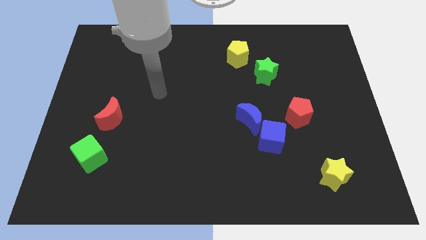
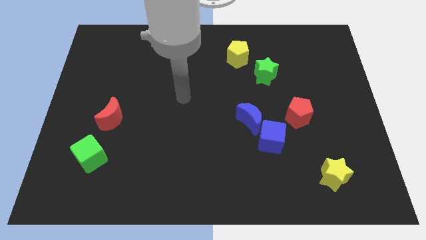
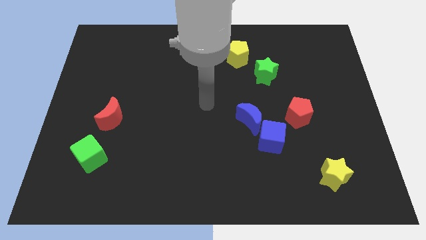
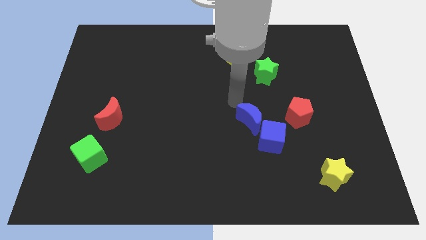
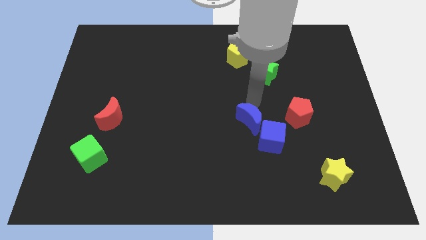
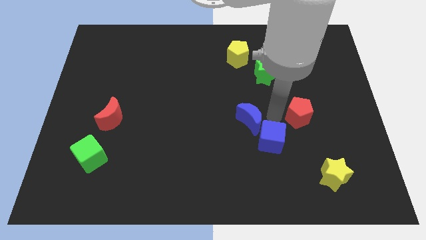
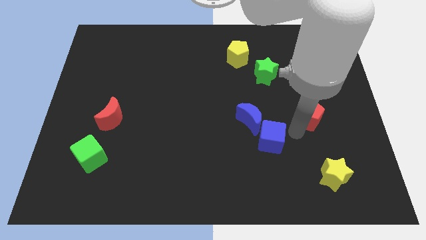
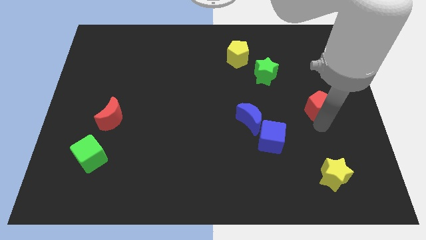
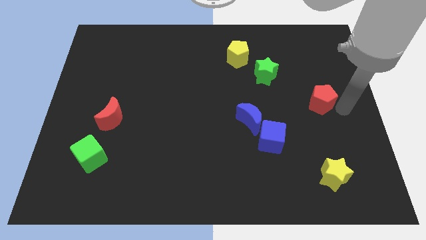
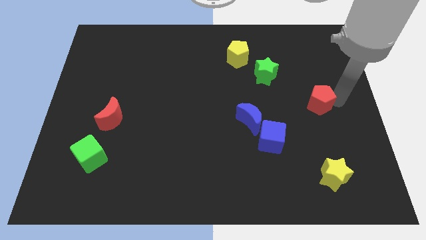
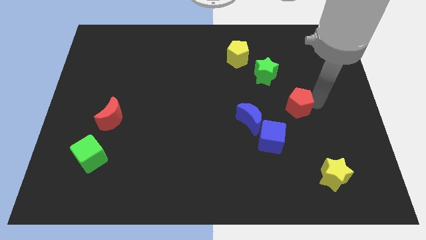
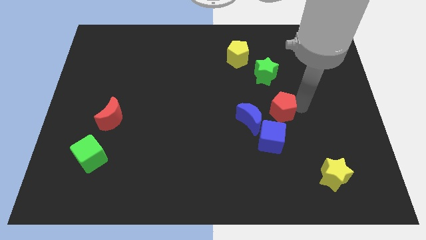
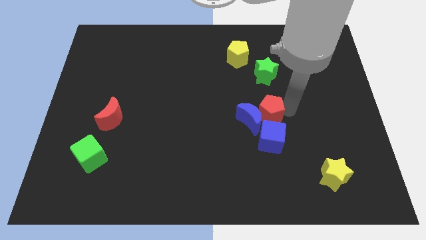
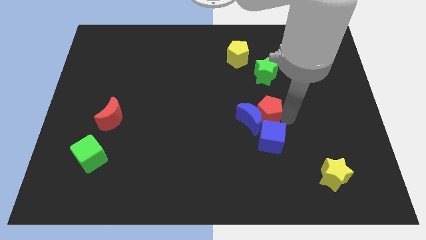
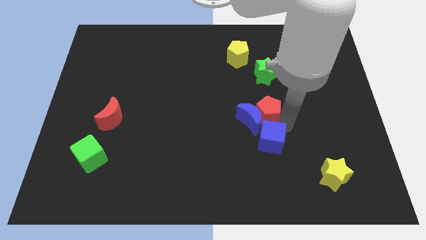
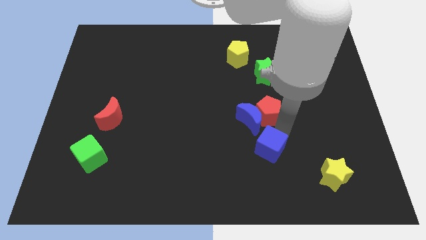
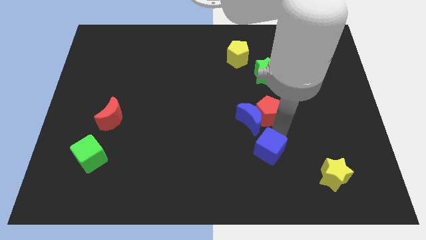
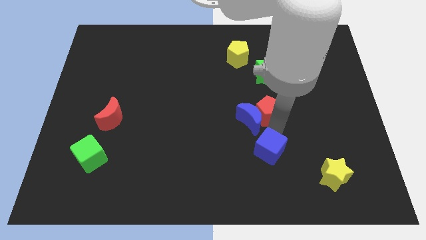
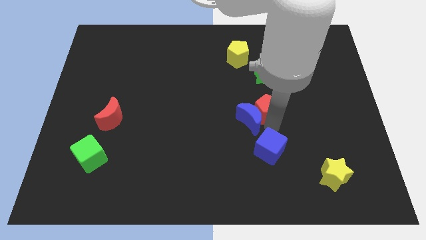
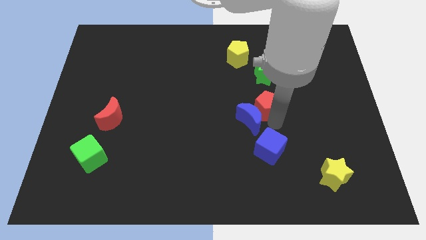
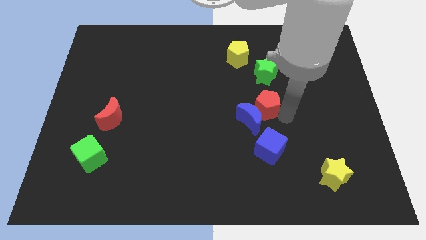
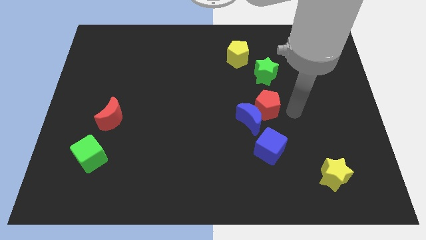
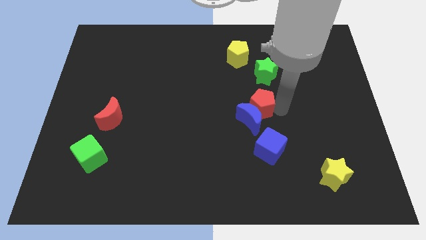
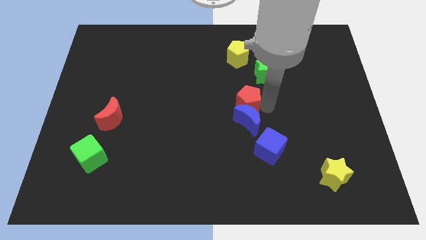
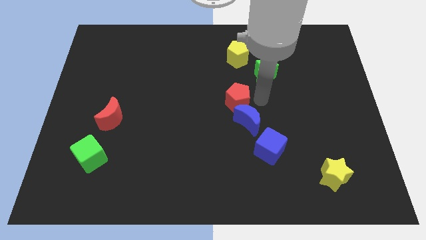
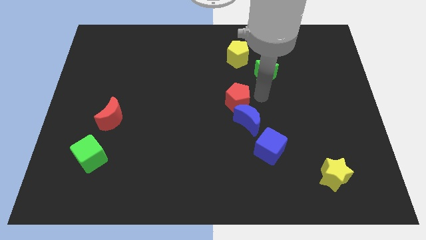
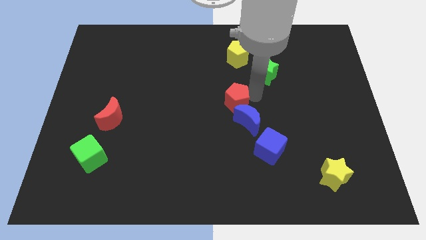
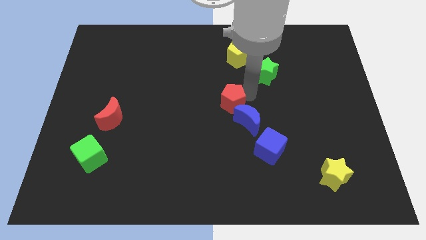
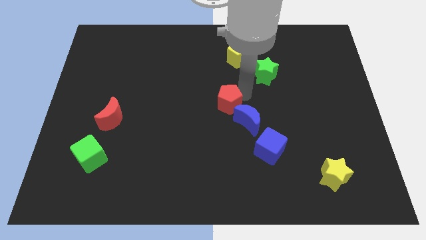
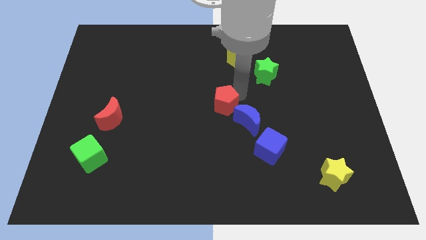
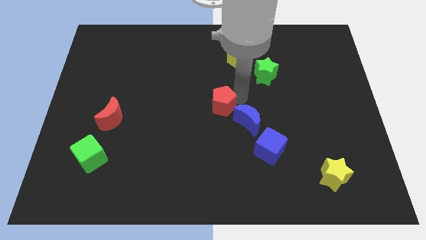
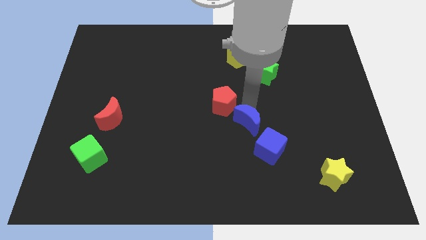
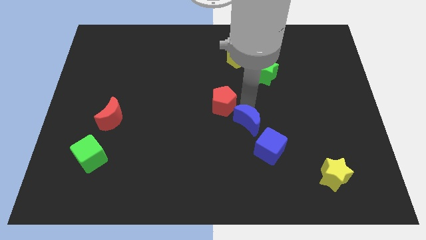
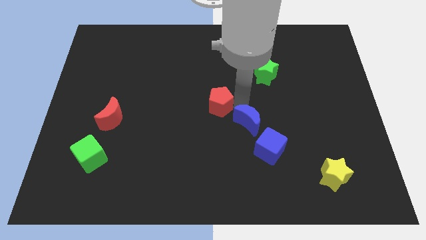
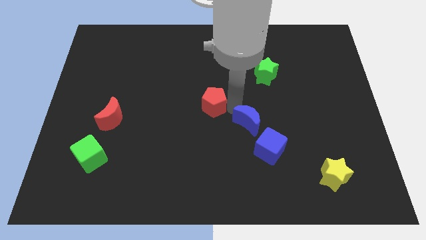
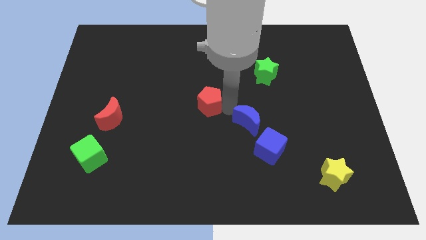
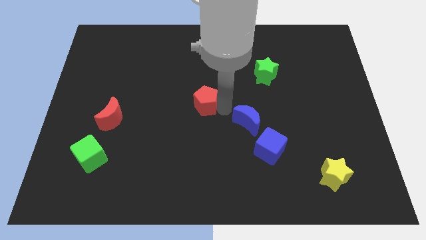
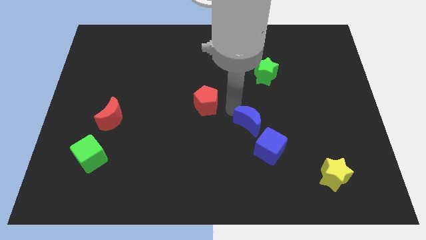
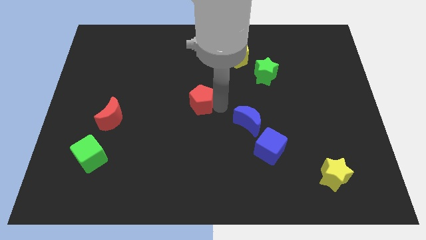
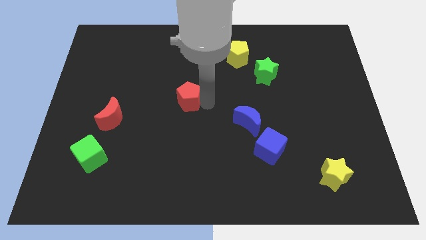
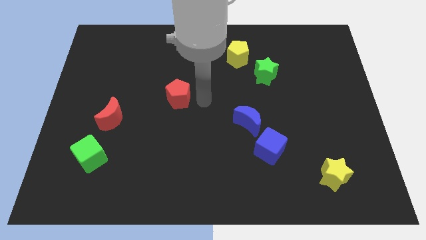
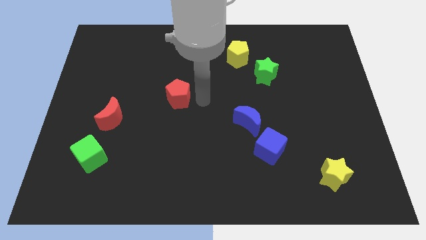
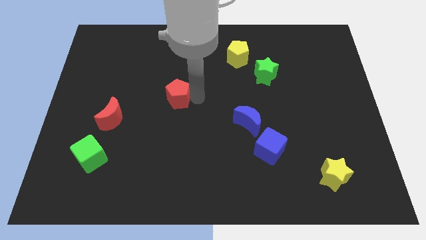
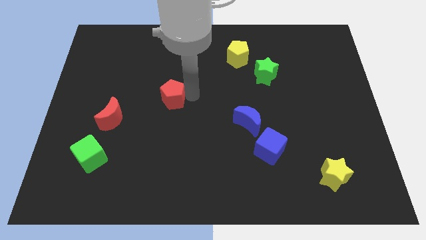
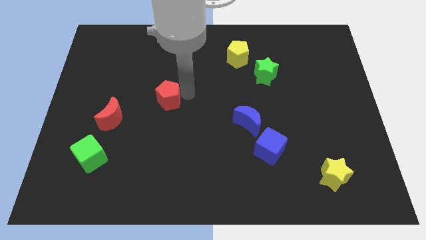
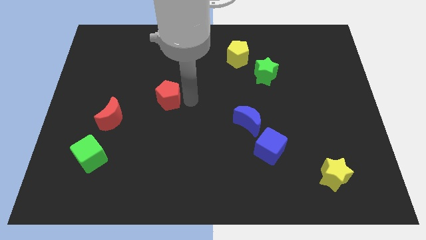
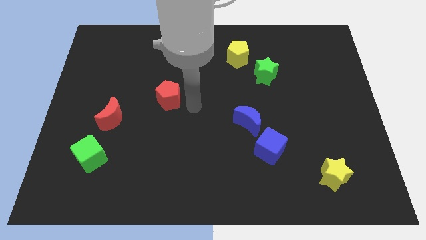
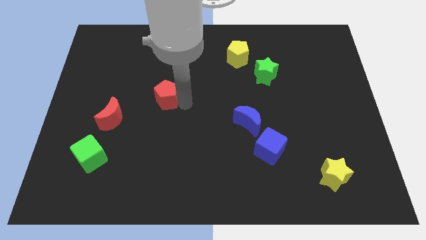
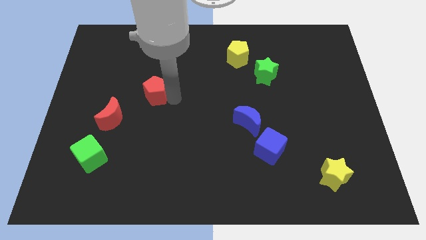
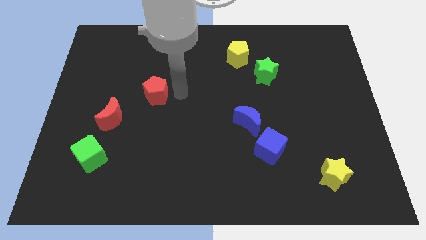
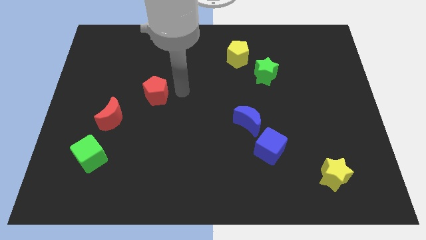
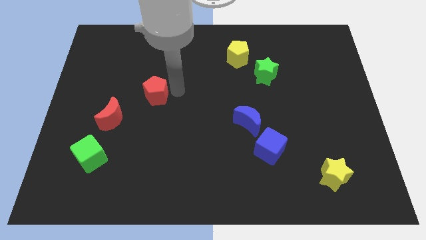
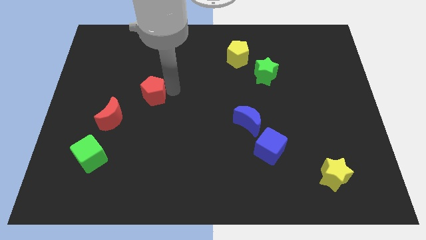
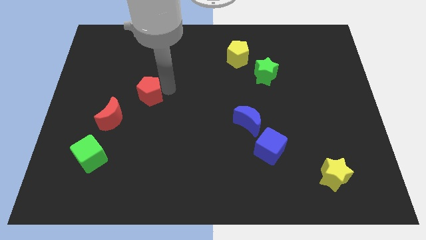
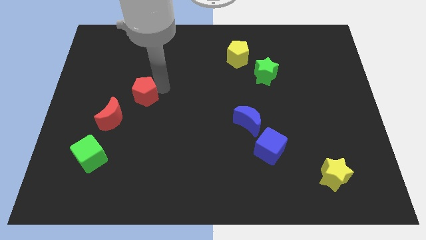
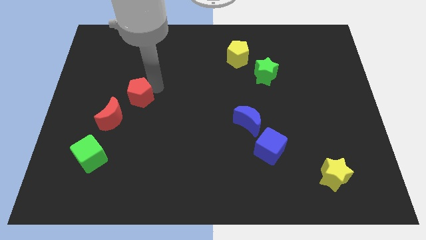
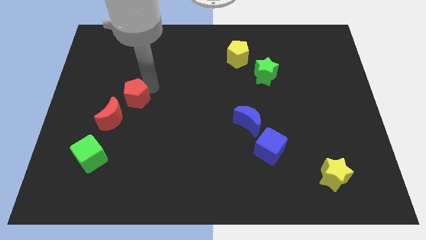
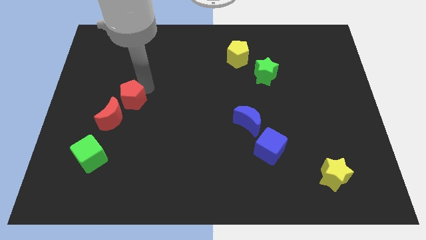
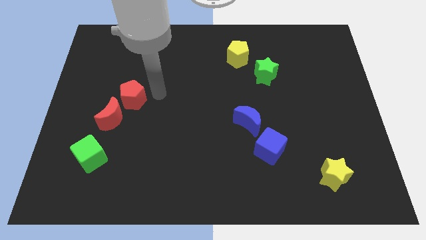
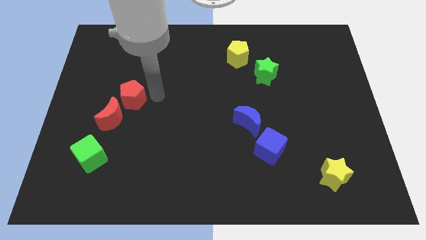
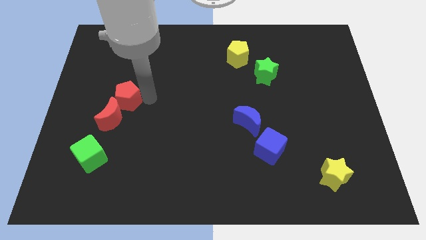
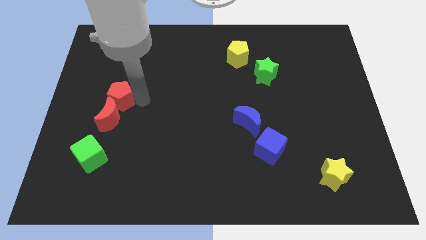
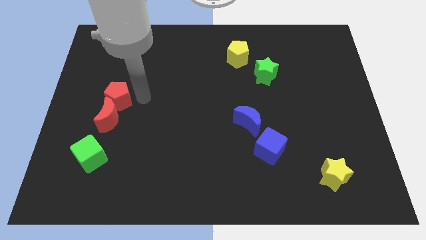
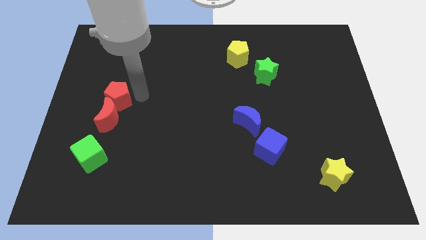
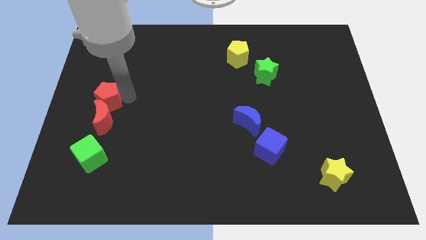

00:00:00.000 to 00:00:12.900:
move the red pentagon to the left side of the board

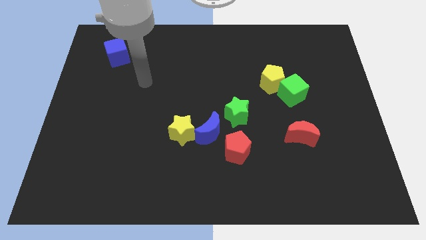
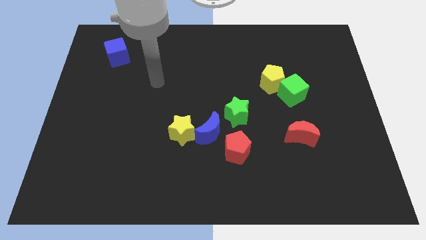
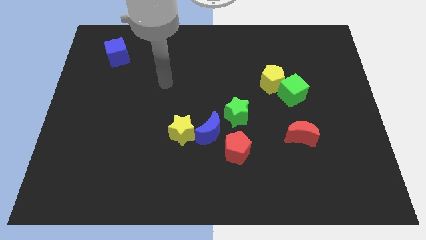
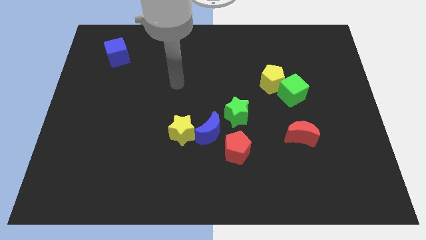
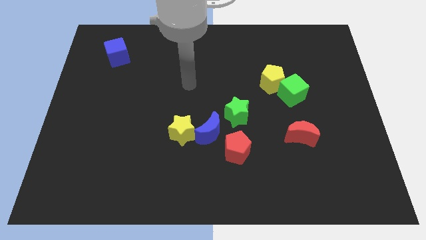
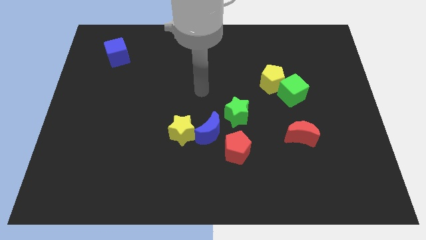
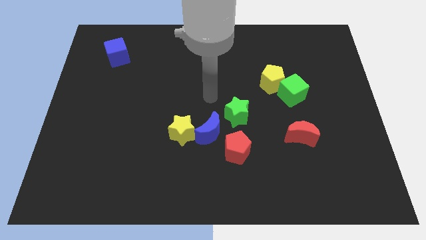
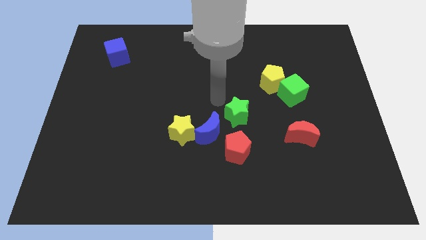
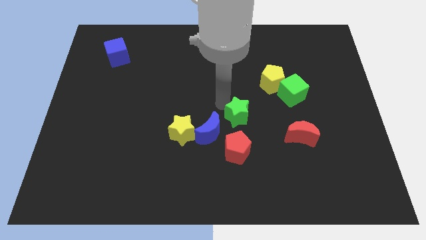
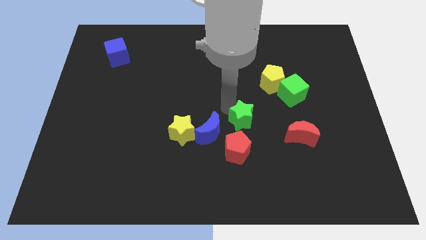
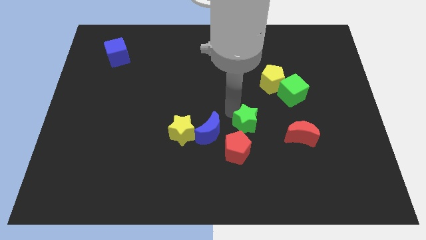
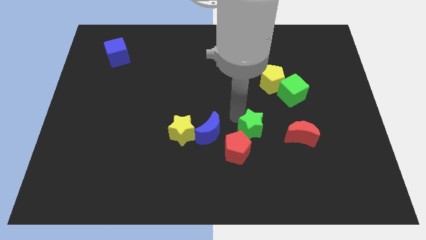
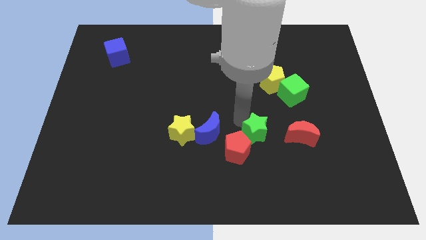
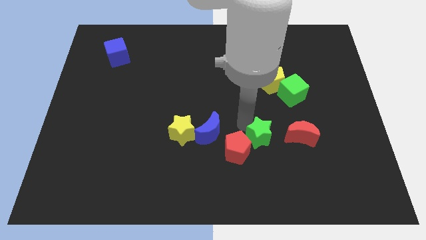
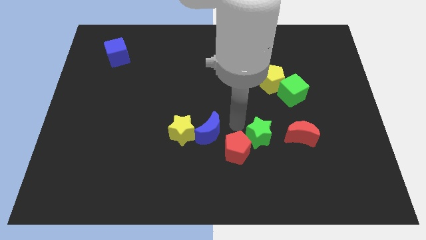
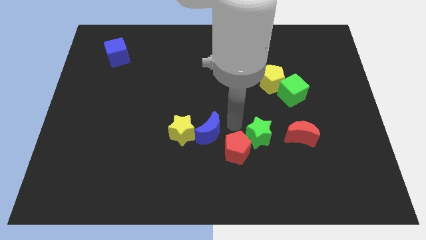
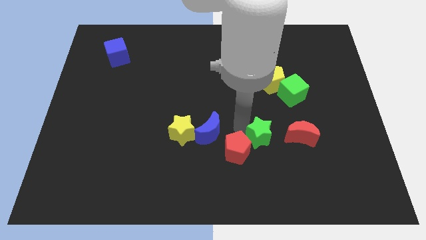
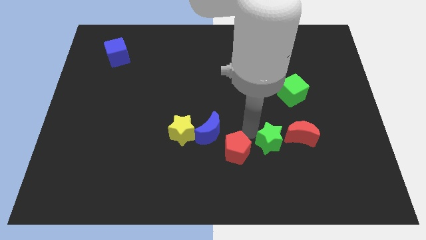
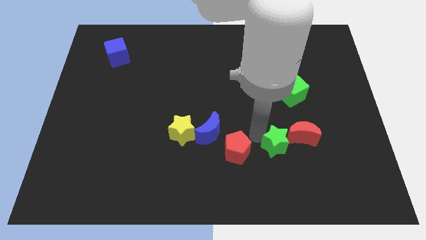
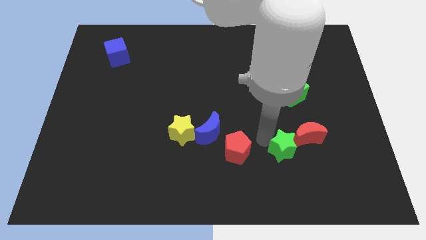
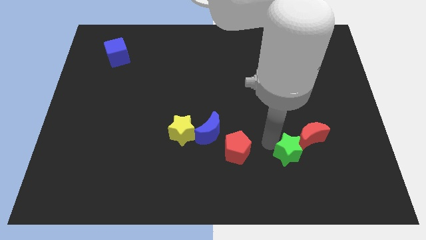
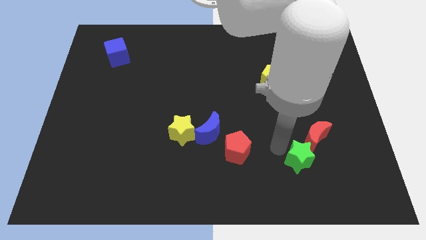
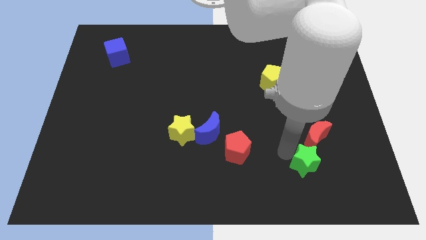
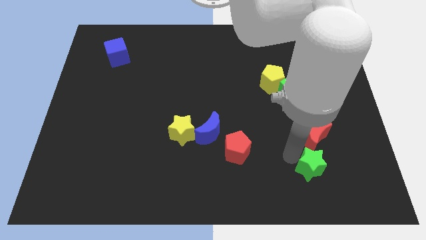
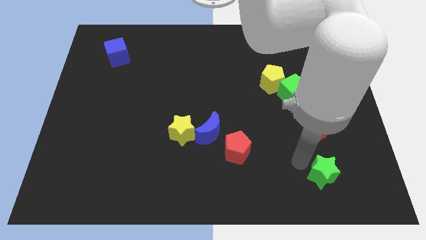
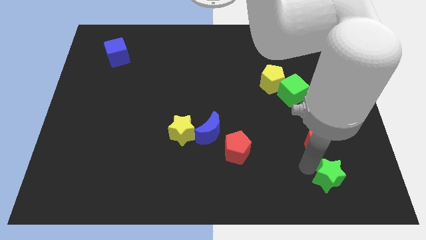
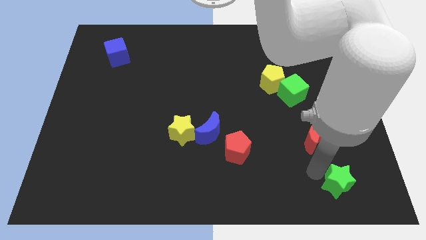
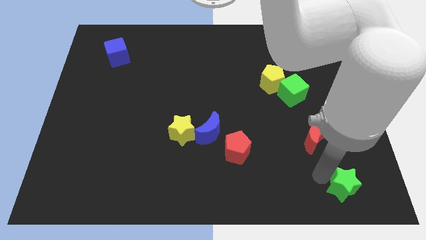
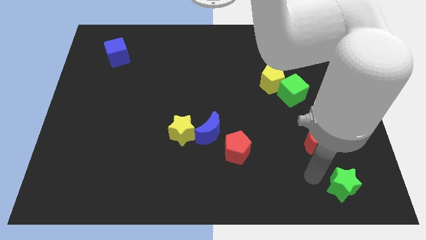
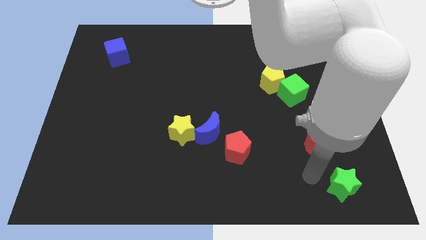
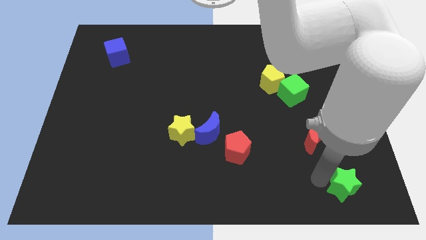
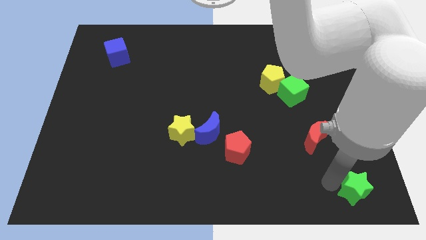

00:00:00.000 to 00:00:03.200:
slide the green star to the bottom right of the board
